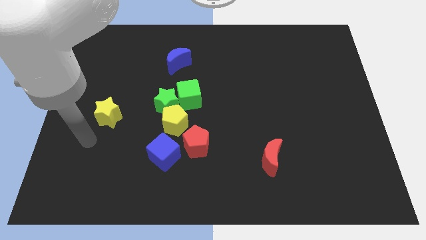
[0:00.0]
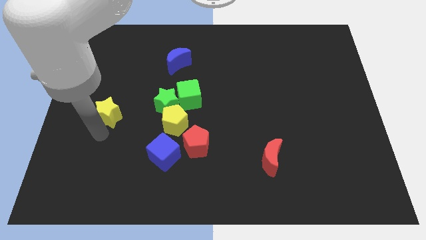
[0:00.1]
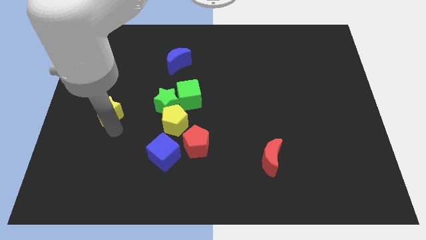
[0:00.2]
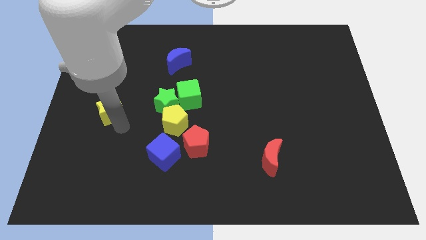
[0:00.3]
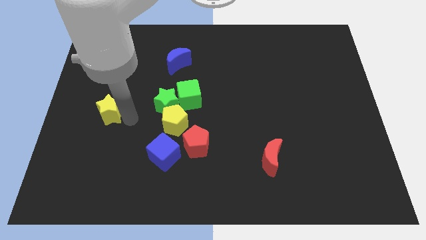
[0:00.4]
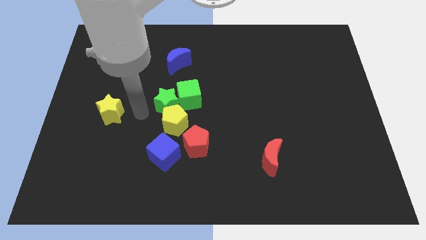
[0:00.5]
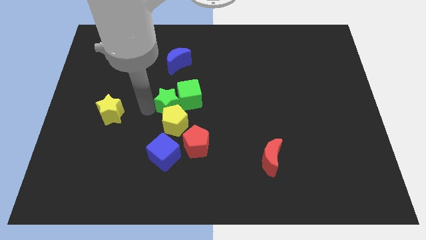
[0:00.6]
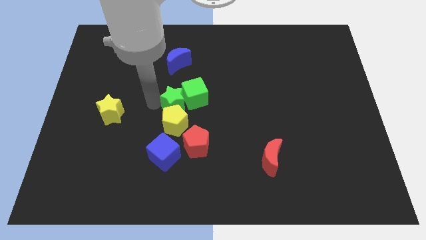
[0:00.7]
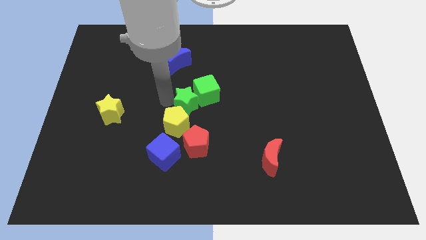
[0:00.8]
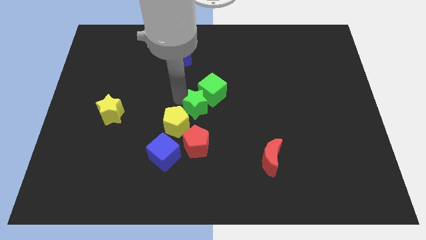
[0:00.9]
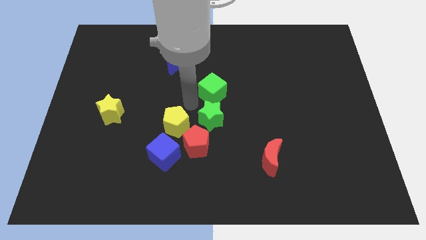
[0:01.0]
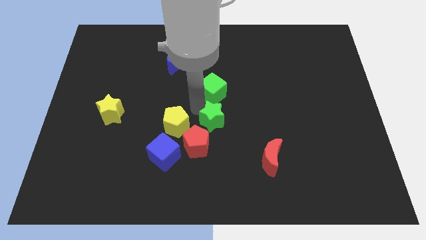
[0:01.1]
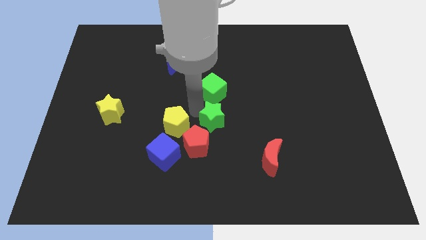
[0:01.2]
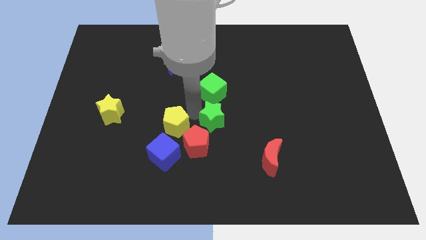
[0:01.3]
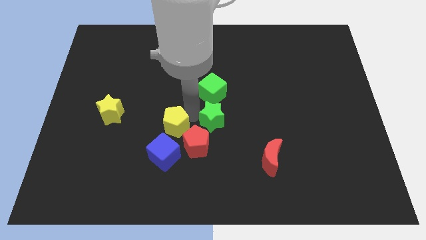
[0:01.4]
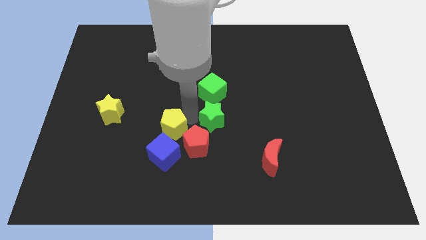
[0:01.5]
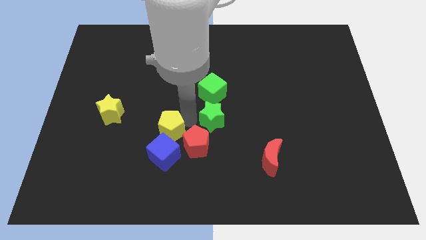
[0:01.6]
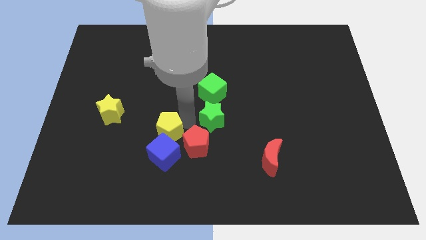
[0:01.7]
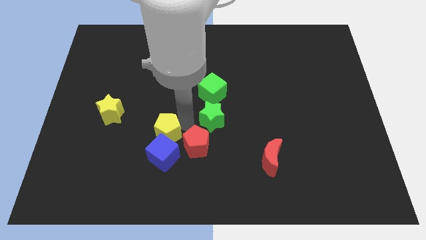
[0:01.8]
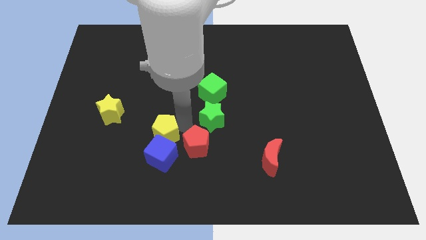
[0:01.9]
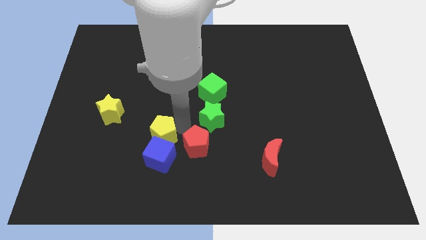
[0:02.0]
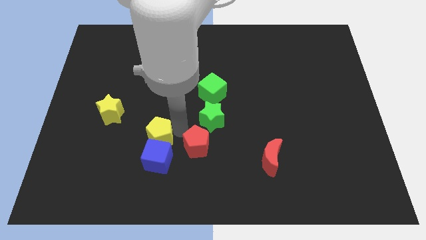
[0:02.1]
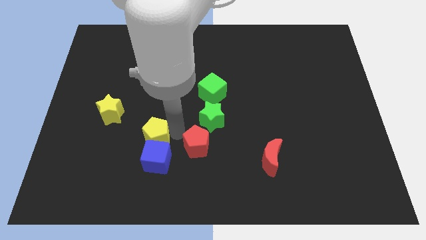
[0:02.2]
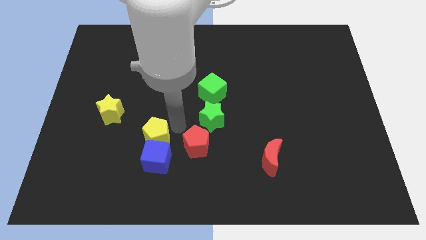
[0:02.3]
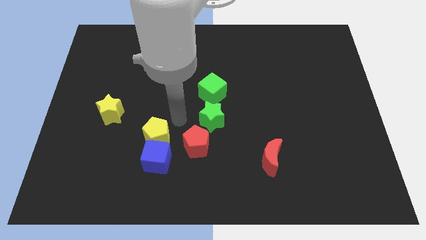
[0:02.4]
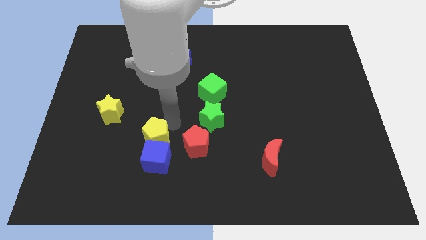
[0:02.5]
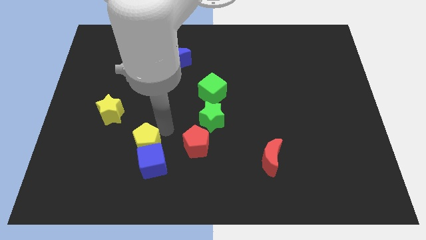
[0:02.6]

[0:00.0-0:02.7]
slightly push the yellow pentagon down and left

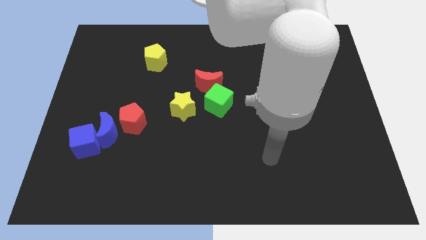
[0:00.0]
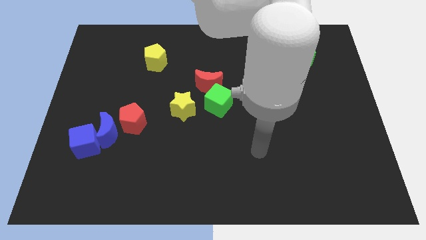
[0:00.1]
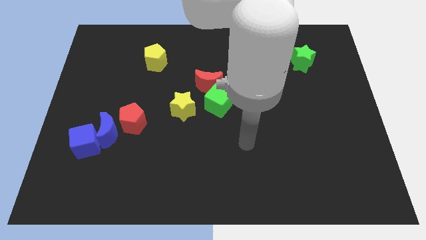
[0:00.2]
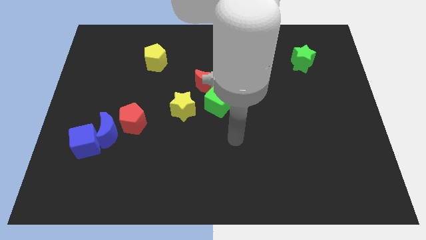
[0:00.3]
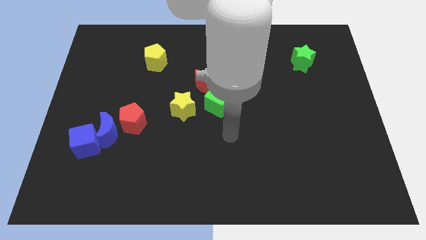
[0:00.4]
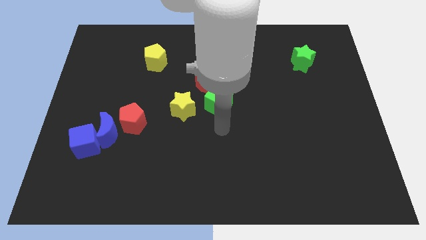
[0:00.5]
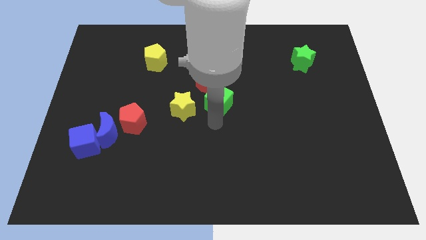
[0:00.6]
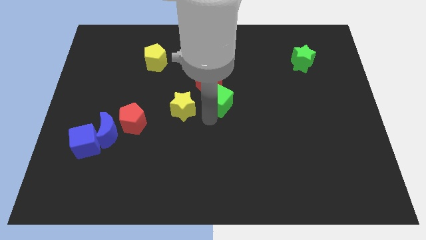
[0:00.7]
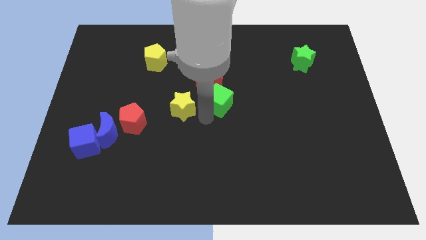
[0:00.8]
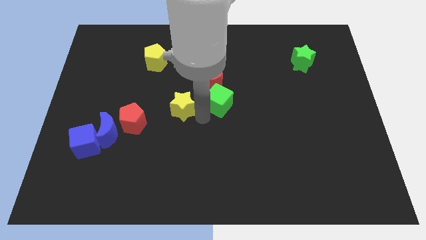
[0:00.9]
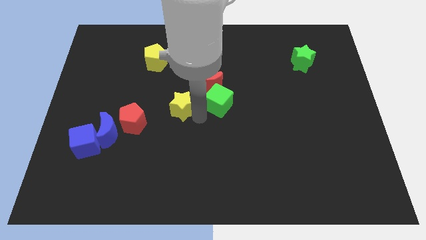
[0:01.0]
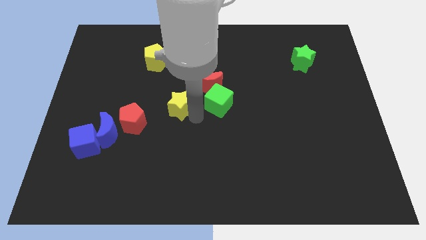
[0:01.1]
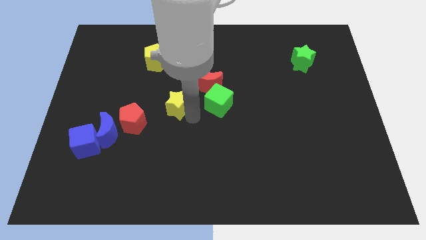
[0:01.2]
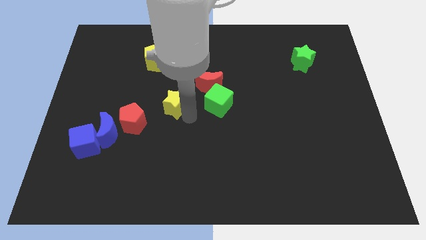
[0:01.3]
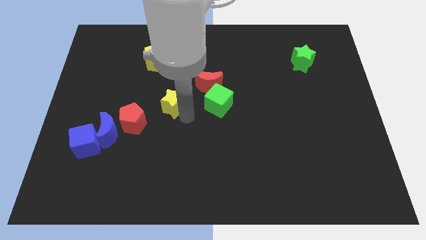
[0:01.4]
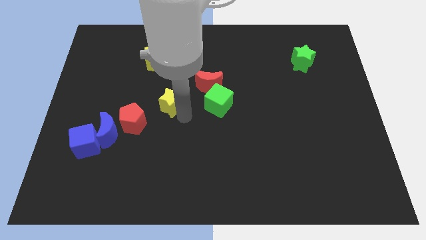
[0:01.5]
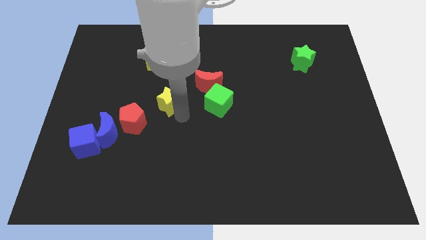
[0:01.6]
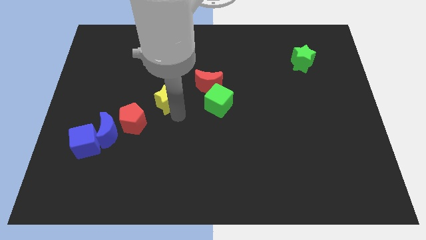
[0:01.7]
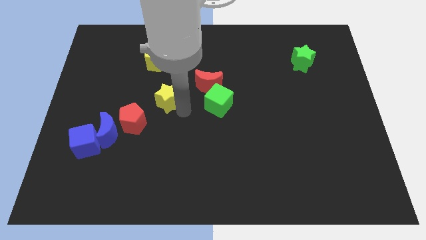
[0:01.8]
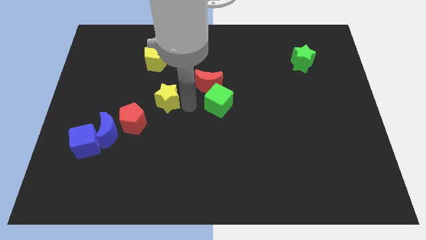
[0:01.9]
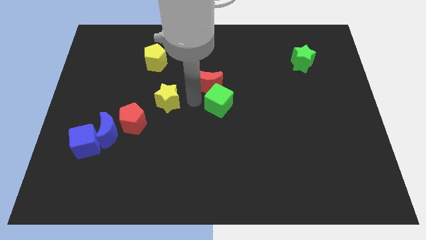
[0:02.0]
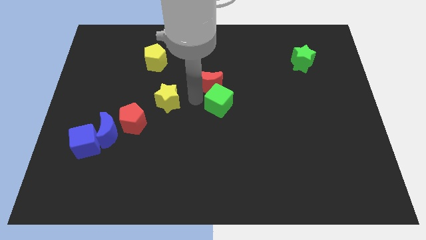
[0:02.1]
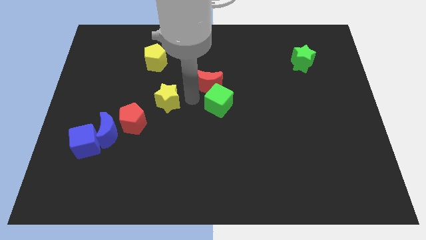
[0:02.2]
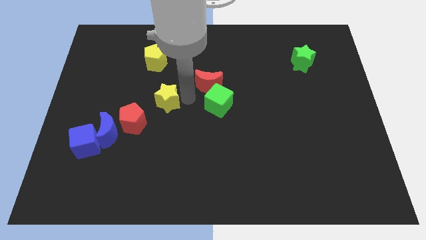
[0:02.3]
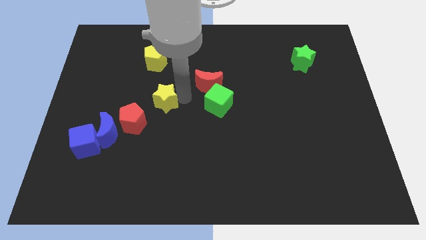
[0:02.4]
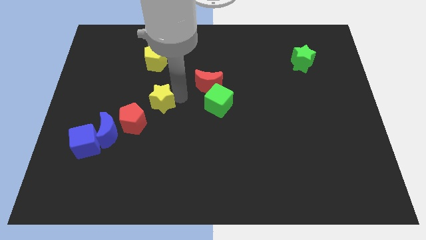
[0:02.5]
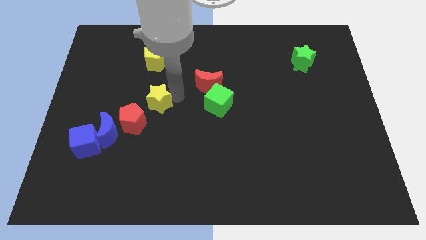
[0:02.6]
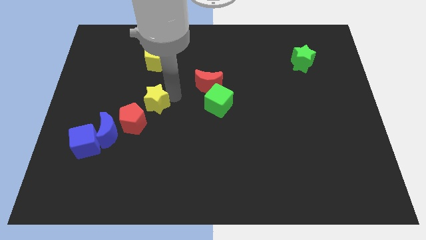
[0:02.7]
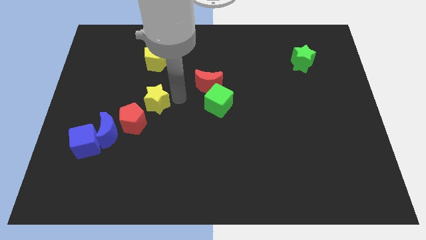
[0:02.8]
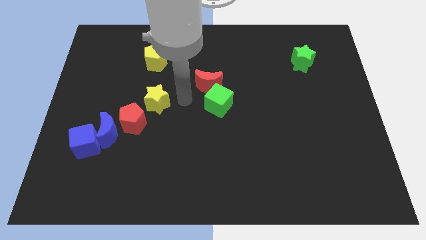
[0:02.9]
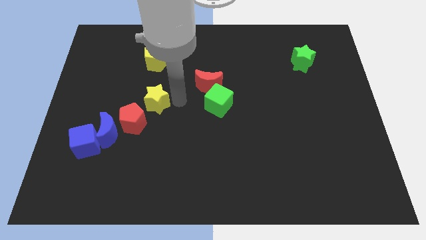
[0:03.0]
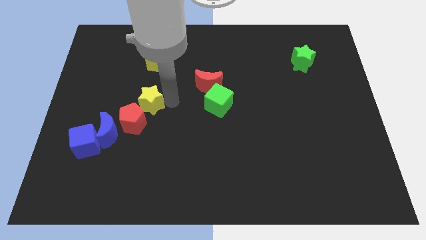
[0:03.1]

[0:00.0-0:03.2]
move the yellow star a bit left

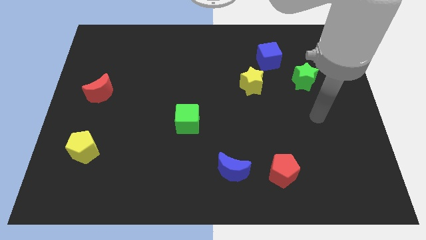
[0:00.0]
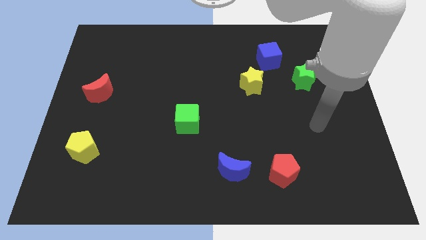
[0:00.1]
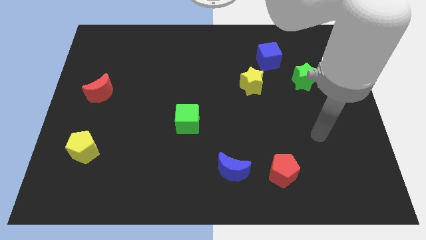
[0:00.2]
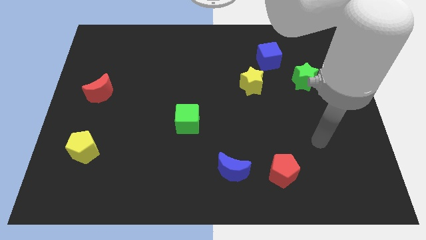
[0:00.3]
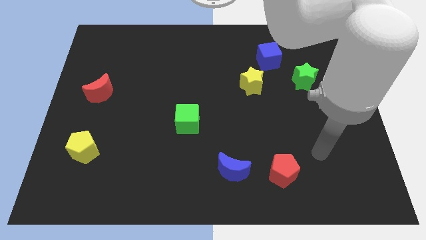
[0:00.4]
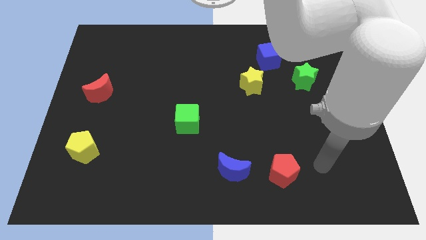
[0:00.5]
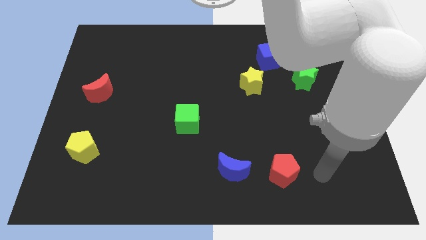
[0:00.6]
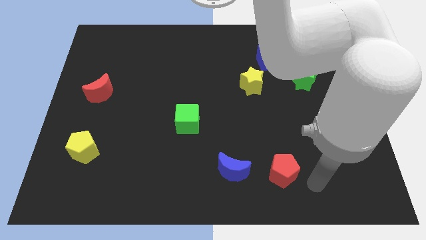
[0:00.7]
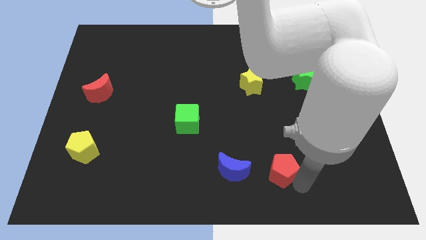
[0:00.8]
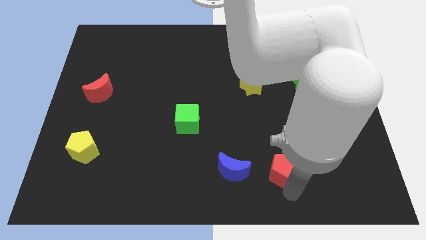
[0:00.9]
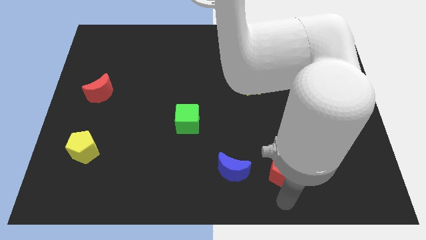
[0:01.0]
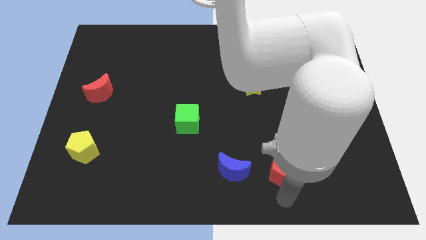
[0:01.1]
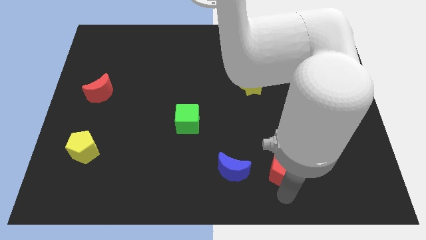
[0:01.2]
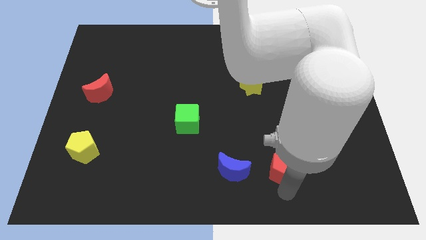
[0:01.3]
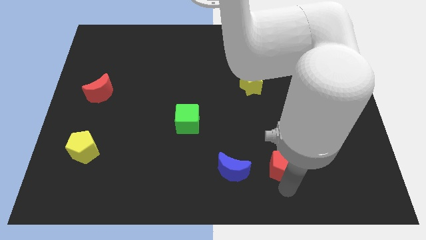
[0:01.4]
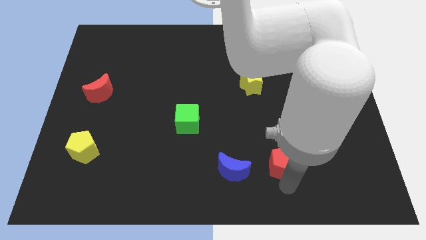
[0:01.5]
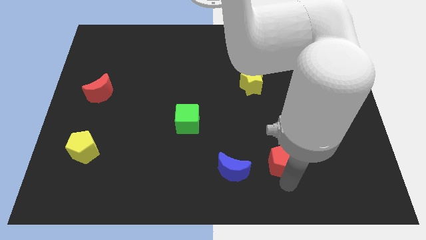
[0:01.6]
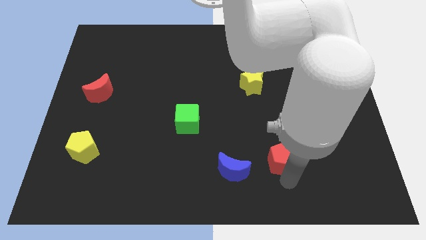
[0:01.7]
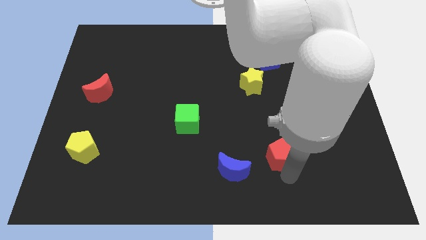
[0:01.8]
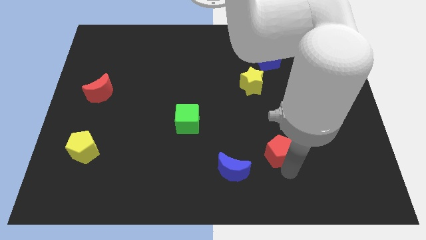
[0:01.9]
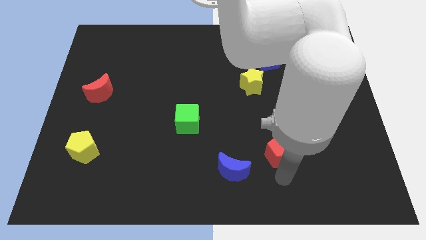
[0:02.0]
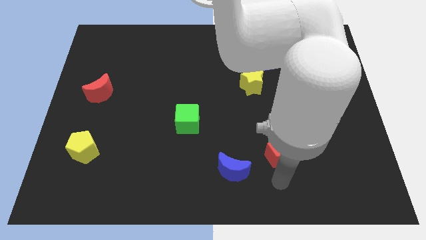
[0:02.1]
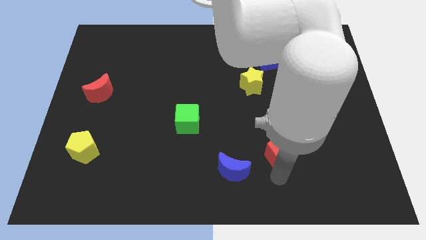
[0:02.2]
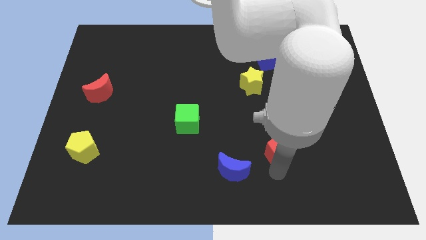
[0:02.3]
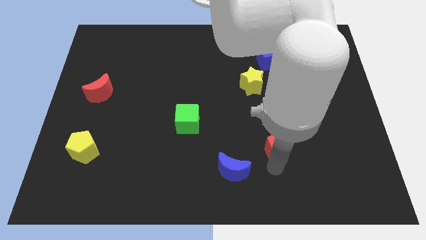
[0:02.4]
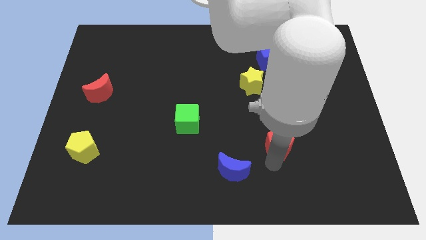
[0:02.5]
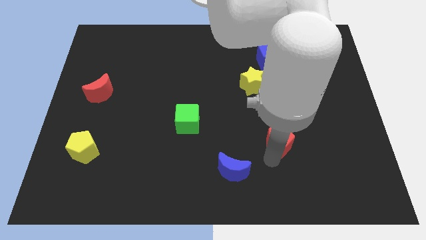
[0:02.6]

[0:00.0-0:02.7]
slightly push the red pentagon upwards
